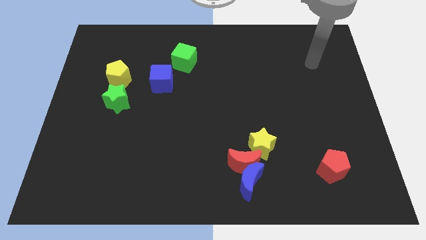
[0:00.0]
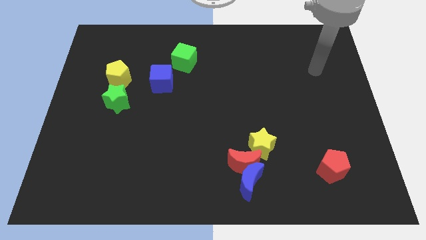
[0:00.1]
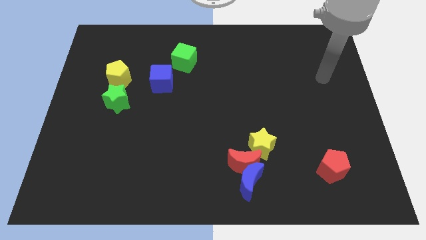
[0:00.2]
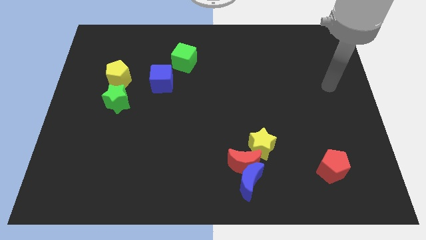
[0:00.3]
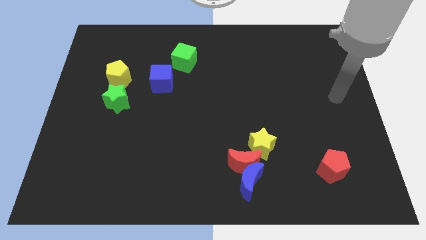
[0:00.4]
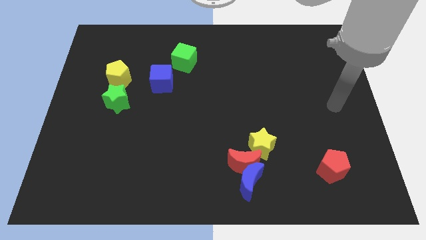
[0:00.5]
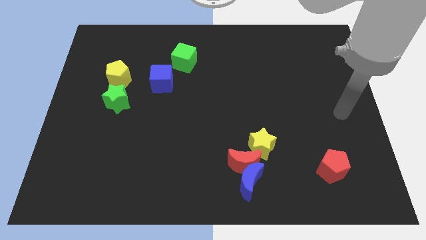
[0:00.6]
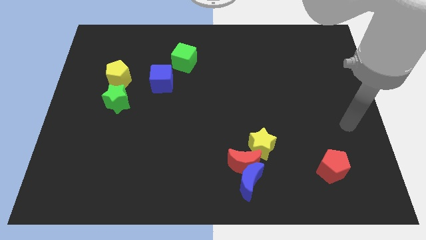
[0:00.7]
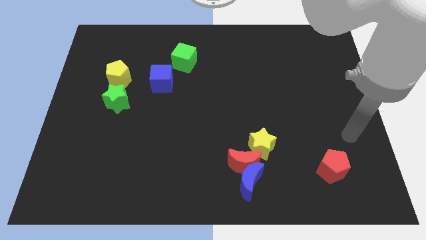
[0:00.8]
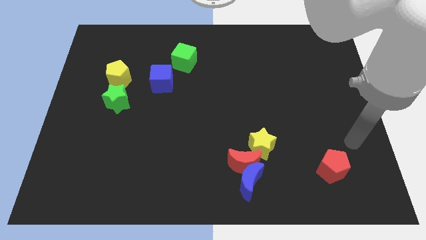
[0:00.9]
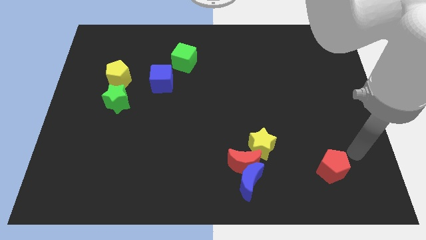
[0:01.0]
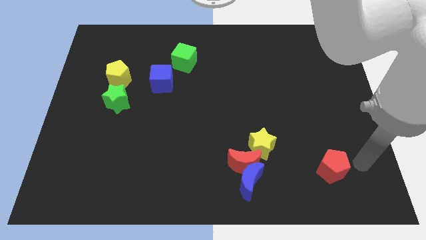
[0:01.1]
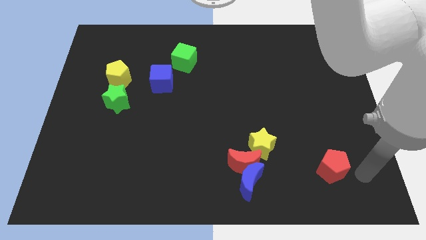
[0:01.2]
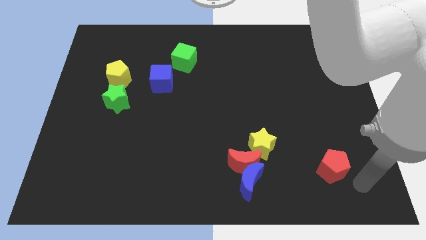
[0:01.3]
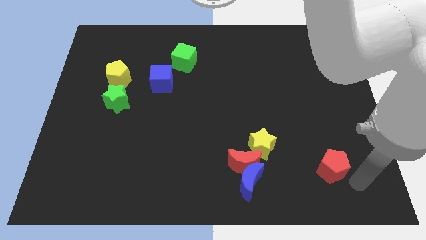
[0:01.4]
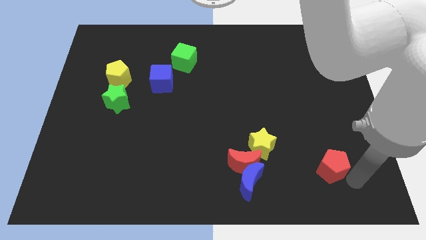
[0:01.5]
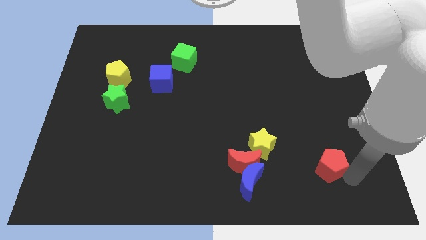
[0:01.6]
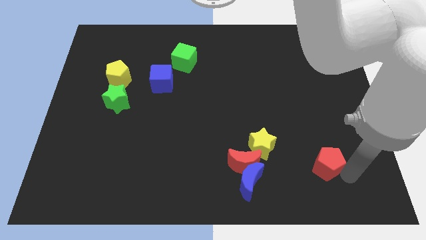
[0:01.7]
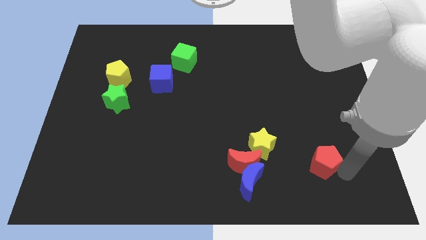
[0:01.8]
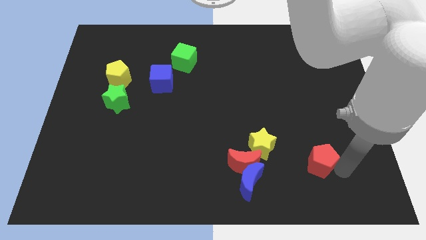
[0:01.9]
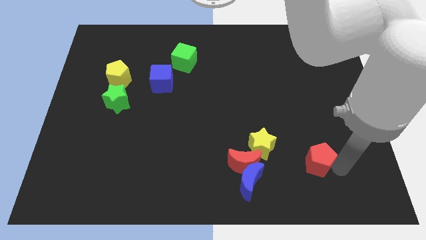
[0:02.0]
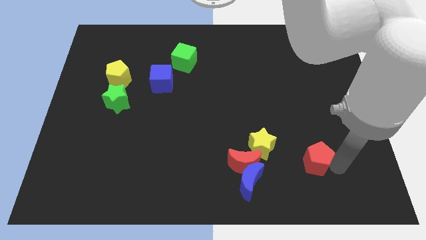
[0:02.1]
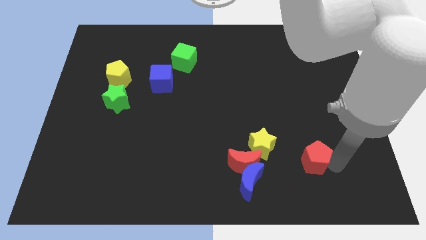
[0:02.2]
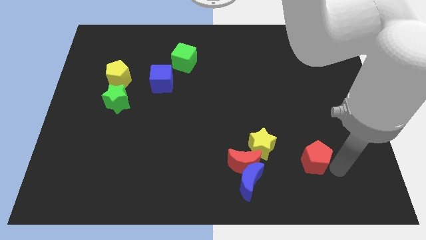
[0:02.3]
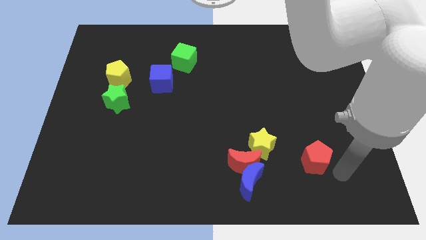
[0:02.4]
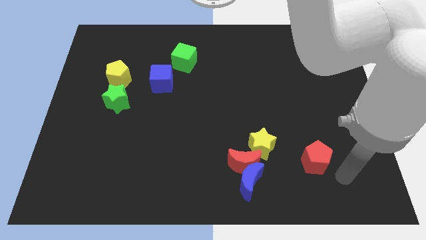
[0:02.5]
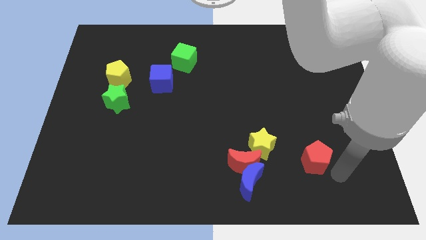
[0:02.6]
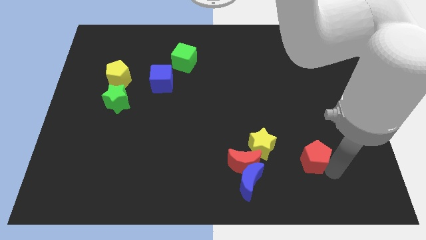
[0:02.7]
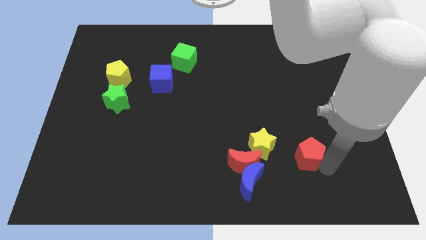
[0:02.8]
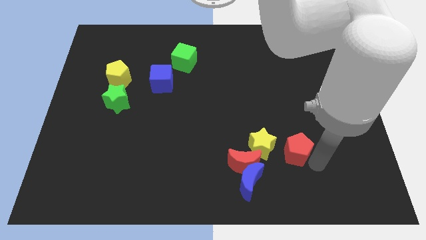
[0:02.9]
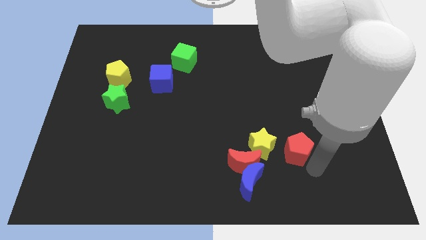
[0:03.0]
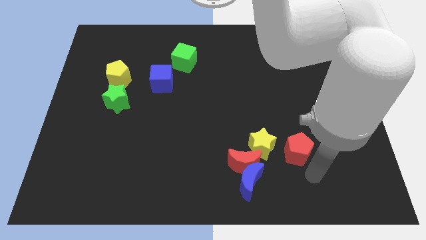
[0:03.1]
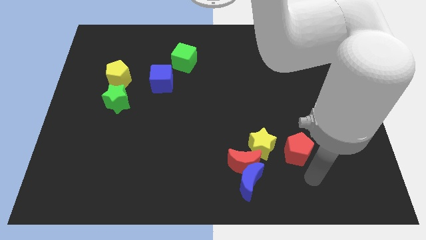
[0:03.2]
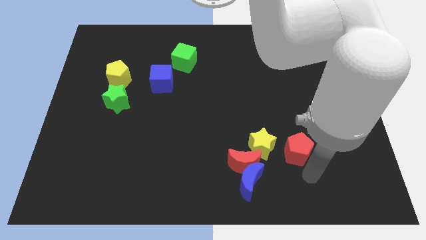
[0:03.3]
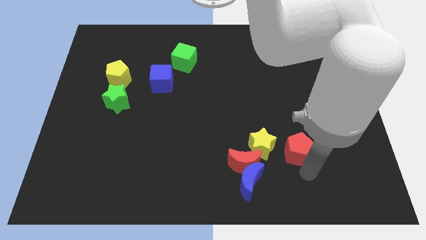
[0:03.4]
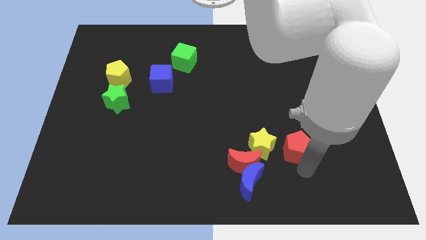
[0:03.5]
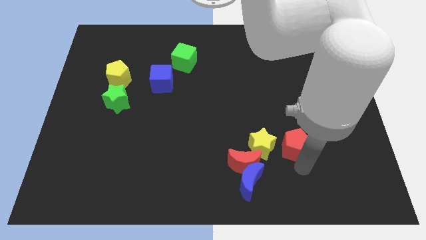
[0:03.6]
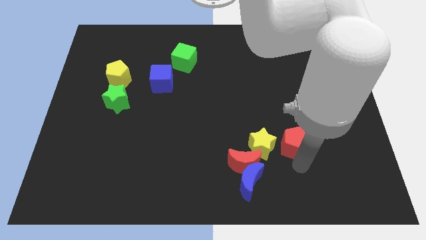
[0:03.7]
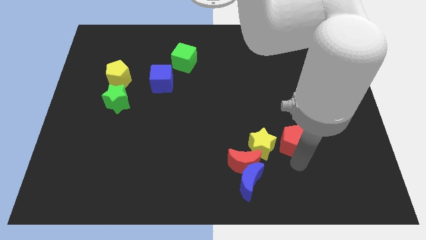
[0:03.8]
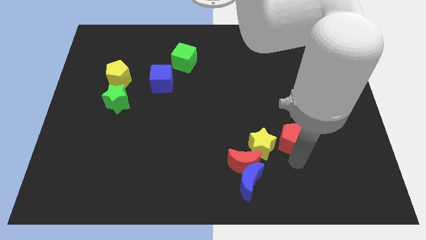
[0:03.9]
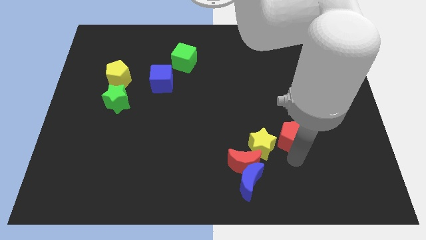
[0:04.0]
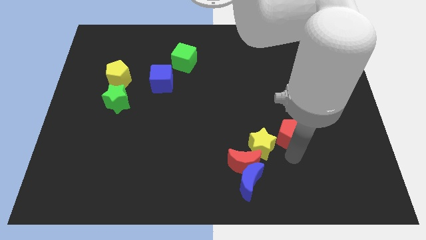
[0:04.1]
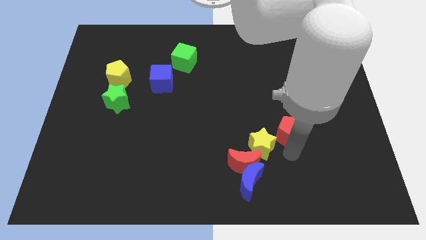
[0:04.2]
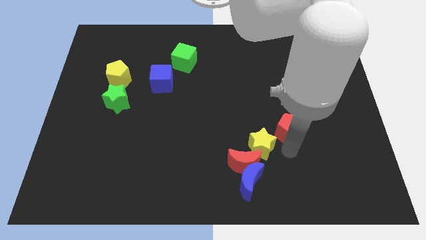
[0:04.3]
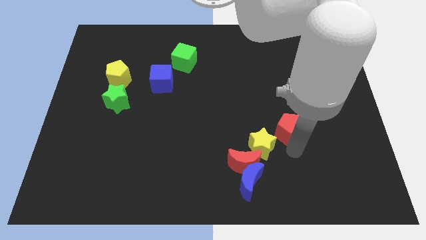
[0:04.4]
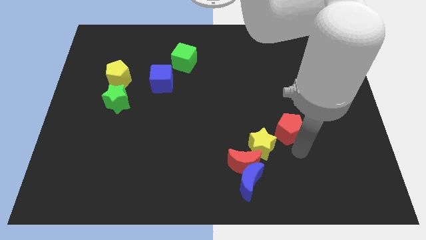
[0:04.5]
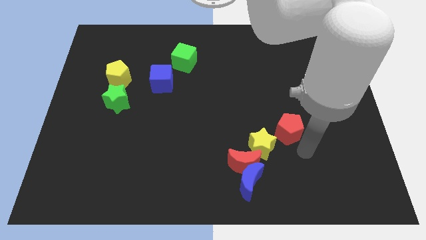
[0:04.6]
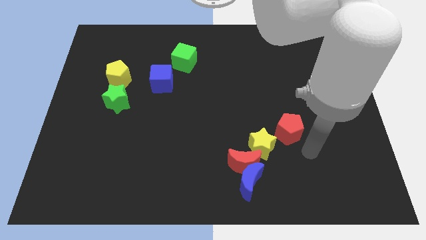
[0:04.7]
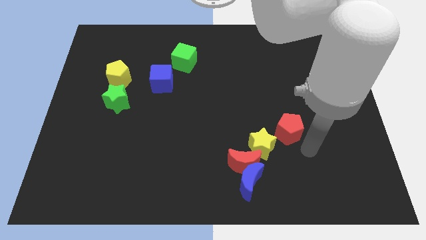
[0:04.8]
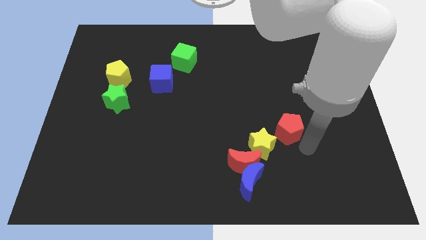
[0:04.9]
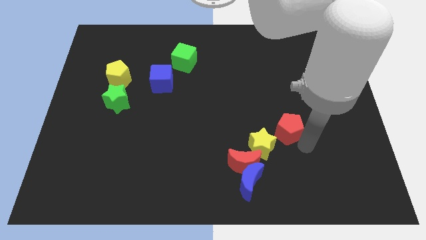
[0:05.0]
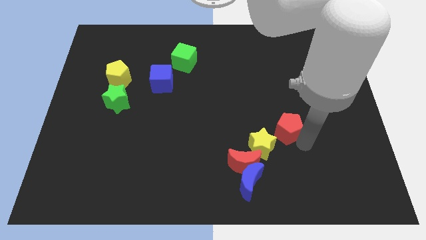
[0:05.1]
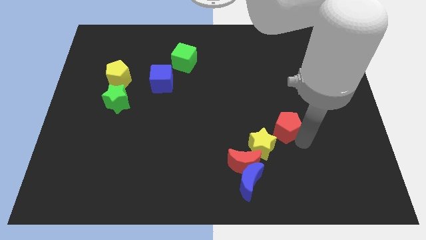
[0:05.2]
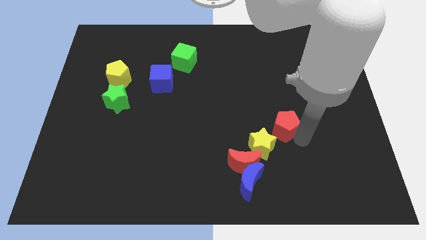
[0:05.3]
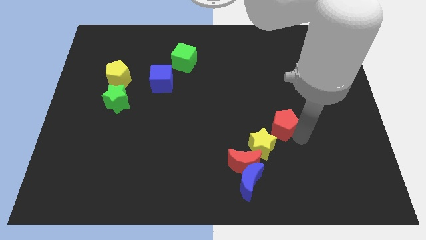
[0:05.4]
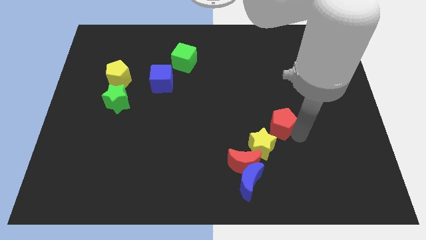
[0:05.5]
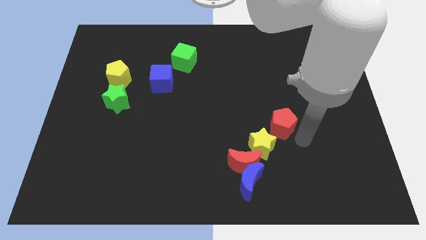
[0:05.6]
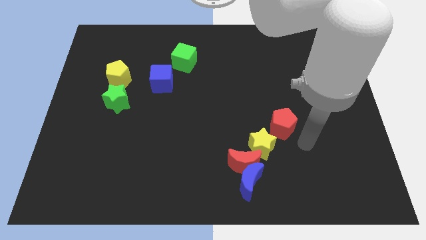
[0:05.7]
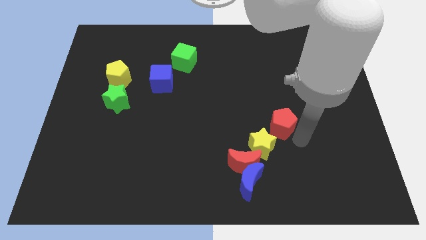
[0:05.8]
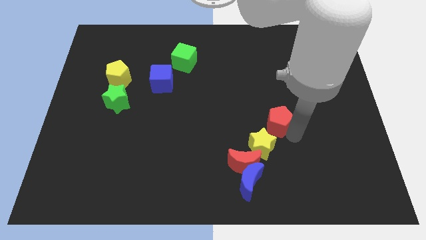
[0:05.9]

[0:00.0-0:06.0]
push the red pentagon above the yellow star

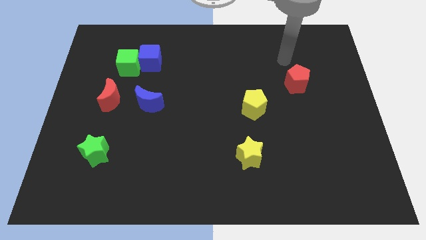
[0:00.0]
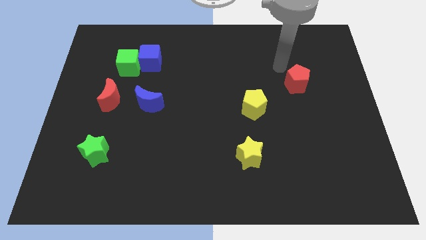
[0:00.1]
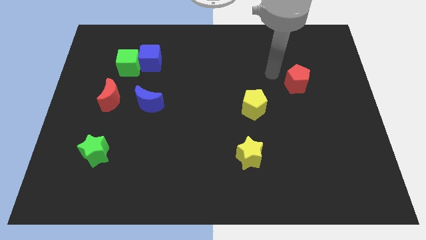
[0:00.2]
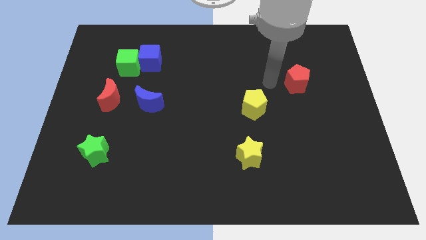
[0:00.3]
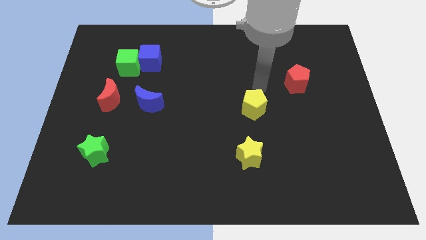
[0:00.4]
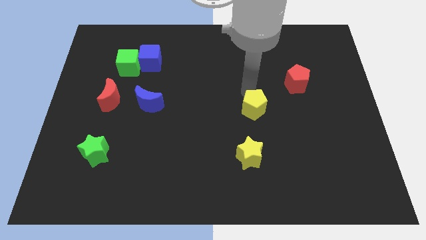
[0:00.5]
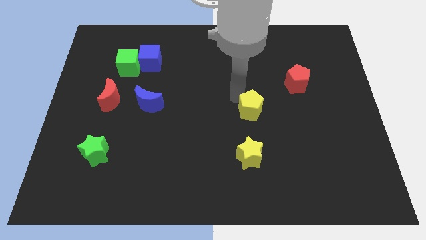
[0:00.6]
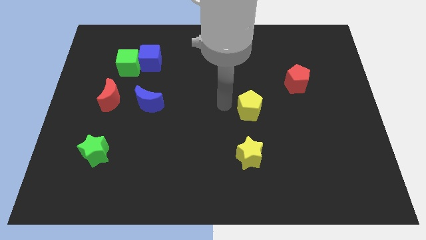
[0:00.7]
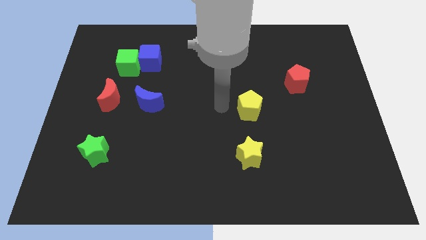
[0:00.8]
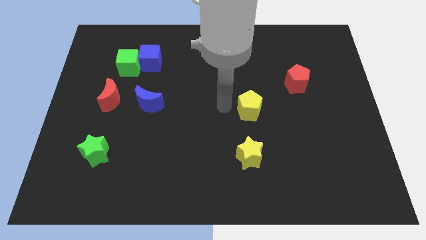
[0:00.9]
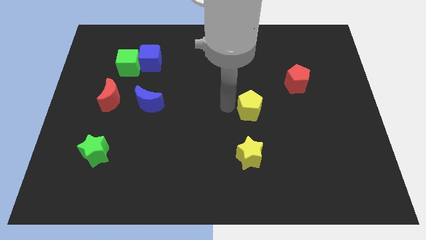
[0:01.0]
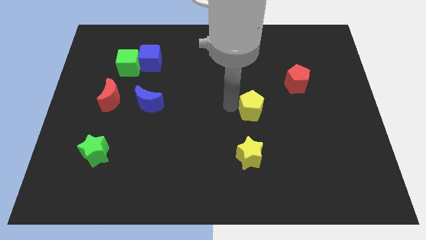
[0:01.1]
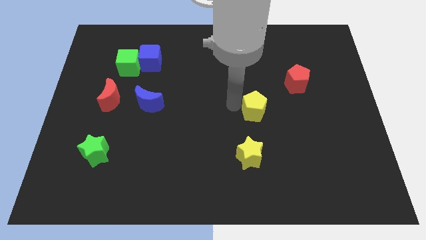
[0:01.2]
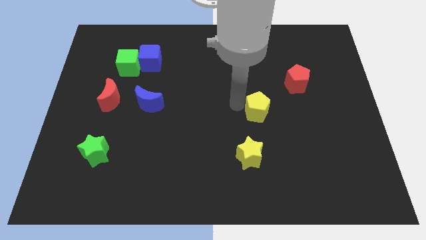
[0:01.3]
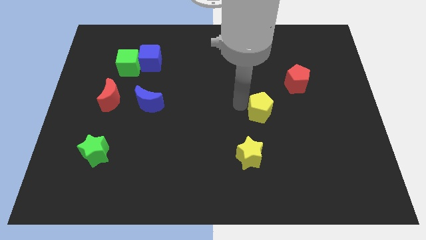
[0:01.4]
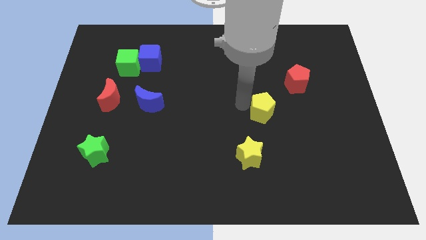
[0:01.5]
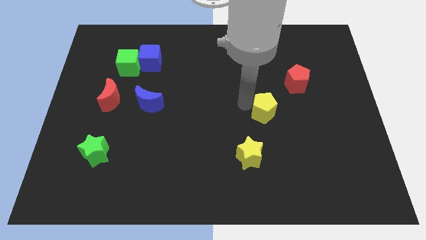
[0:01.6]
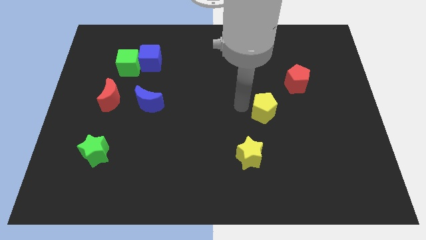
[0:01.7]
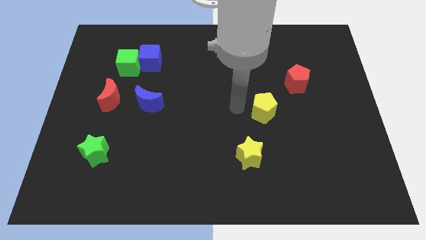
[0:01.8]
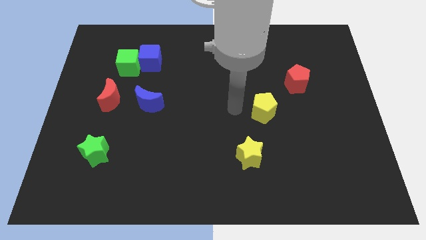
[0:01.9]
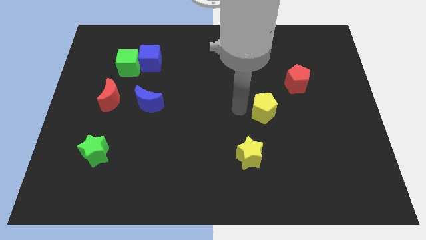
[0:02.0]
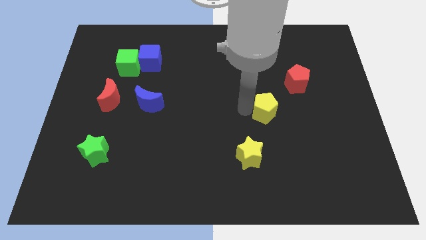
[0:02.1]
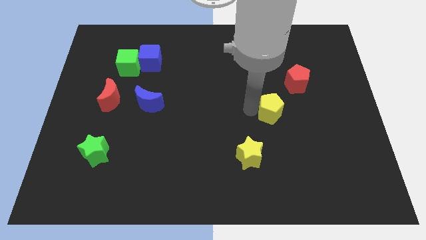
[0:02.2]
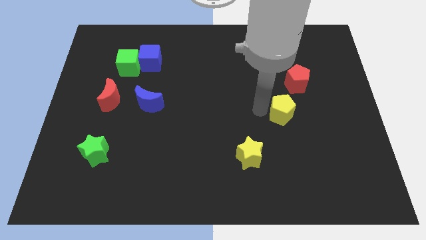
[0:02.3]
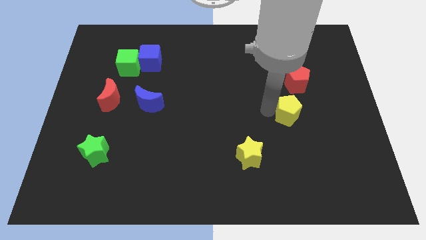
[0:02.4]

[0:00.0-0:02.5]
put the yellow pentagon to the bottom of the red pentagon
